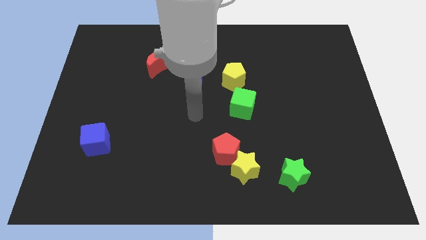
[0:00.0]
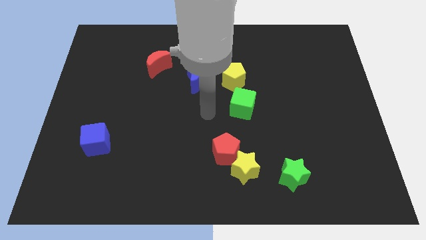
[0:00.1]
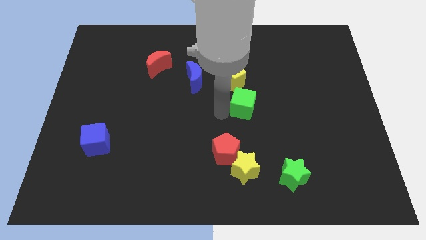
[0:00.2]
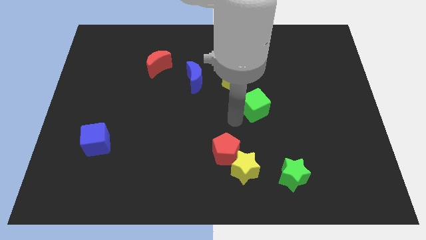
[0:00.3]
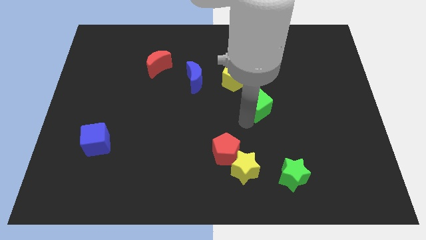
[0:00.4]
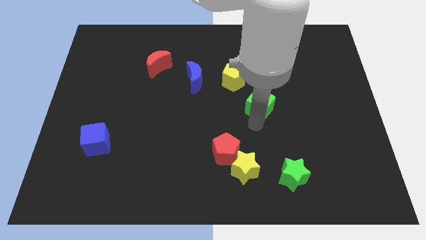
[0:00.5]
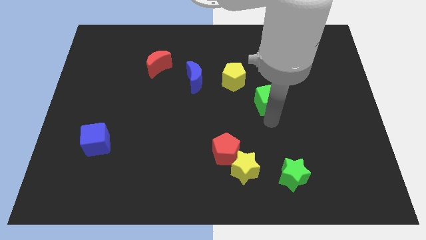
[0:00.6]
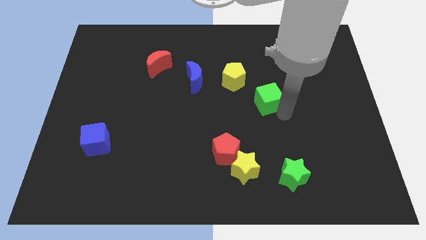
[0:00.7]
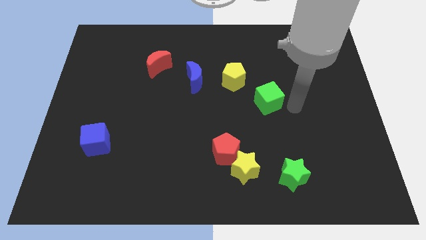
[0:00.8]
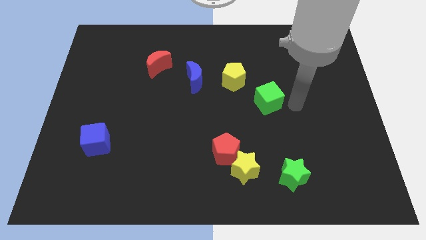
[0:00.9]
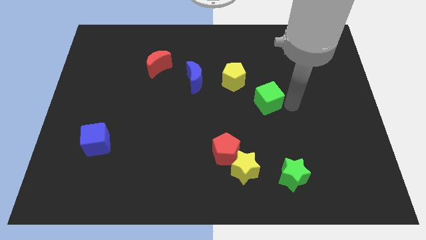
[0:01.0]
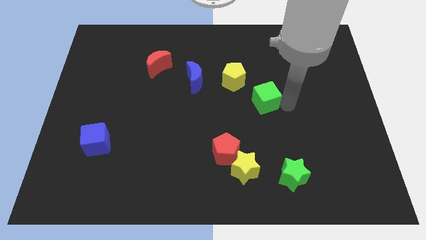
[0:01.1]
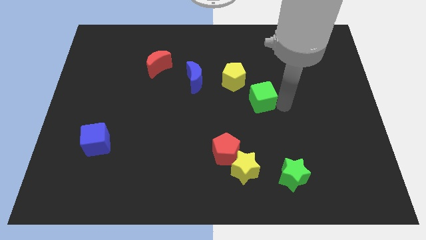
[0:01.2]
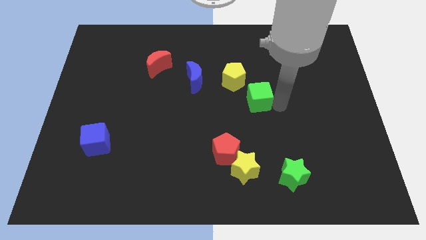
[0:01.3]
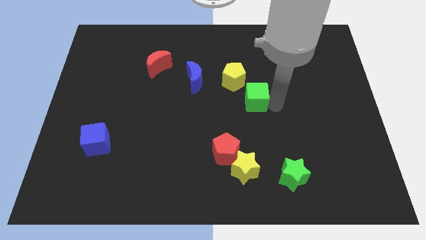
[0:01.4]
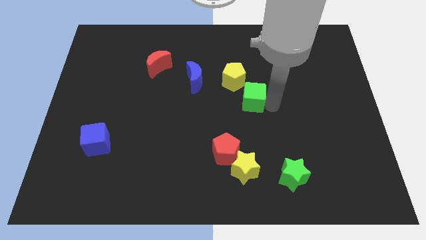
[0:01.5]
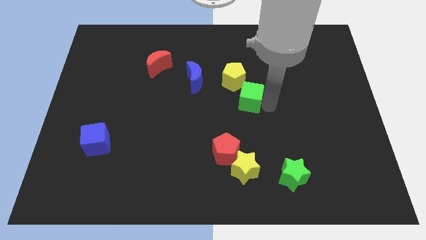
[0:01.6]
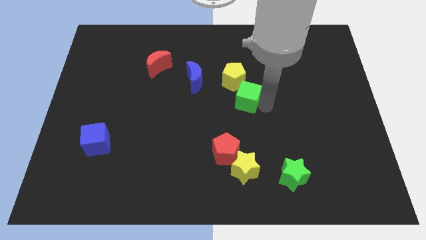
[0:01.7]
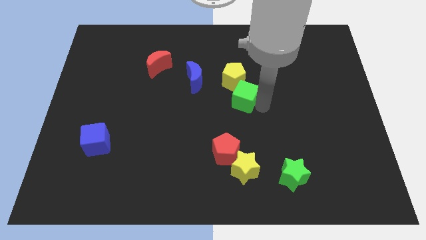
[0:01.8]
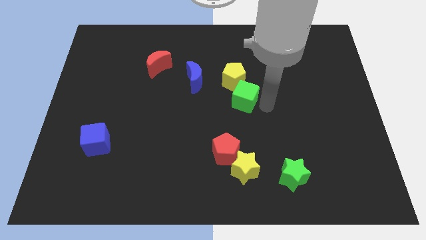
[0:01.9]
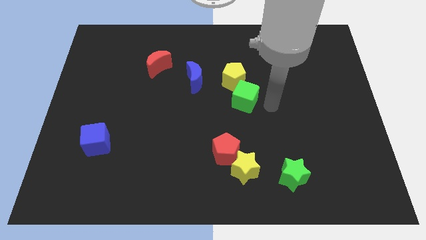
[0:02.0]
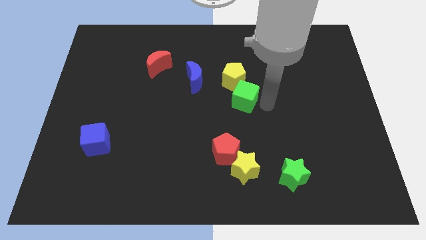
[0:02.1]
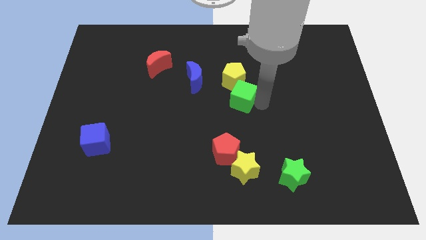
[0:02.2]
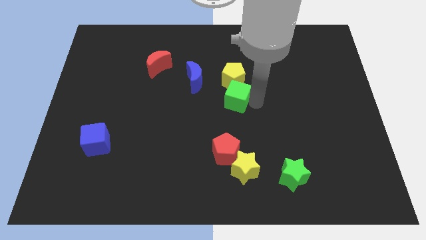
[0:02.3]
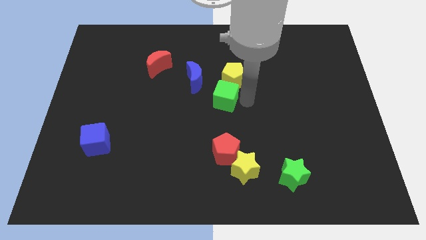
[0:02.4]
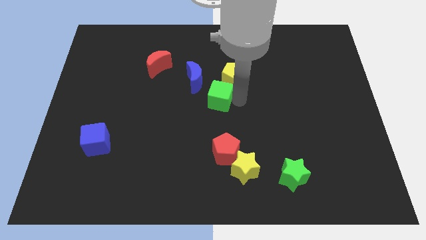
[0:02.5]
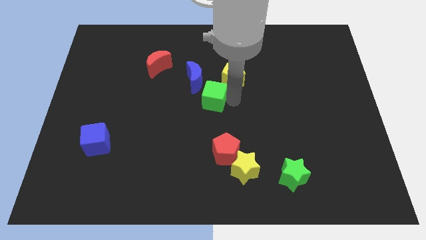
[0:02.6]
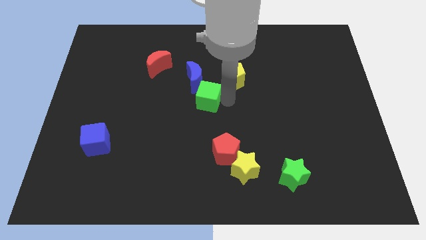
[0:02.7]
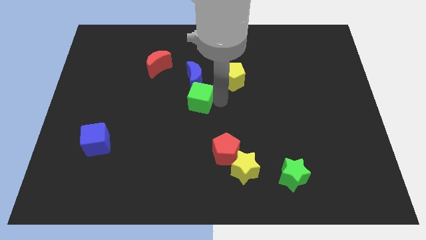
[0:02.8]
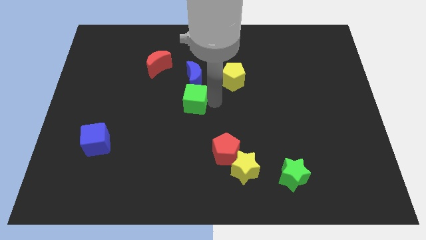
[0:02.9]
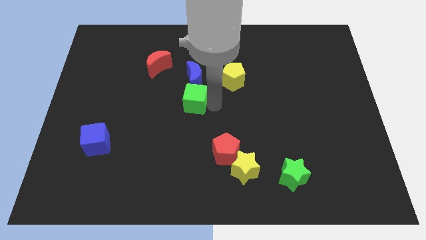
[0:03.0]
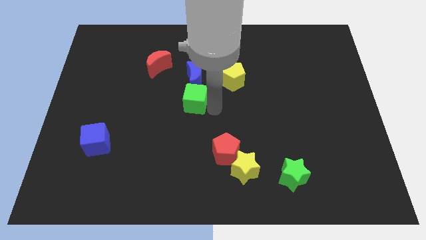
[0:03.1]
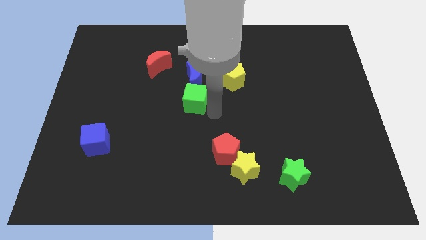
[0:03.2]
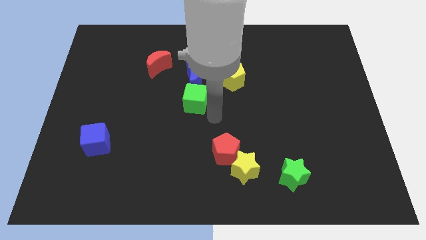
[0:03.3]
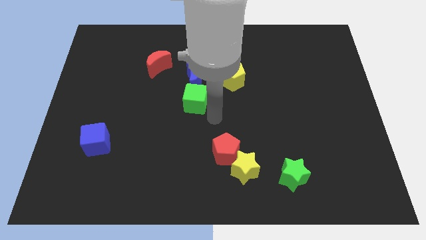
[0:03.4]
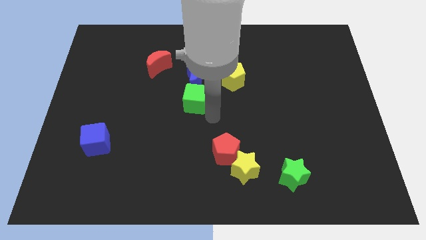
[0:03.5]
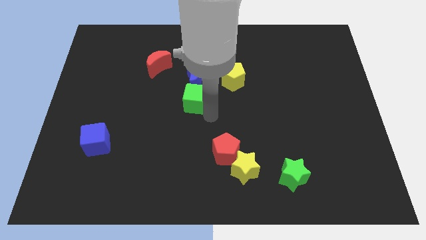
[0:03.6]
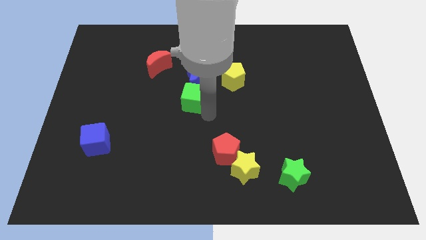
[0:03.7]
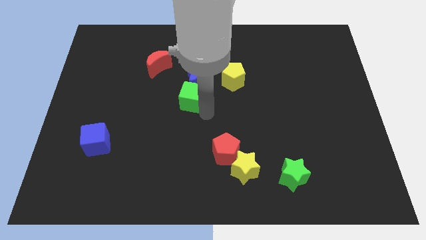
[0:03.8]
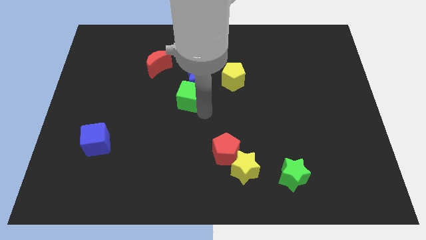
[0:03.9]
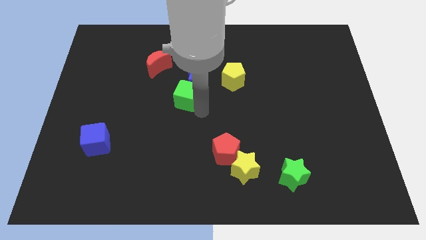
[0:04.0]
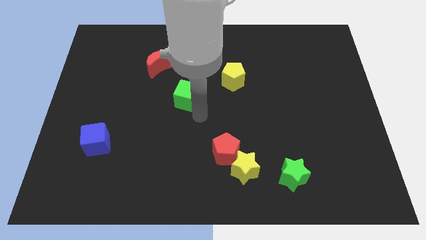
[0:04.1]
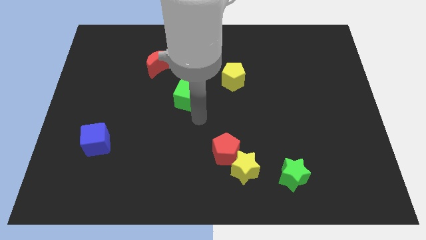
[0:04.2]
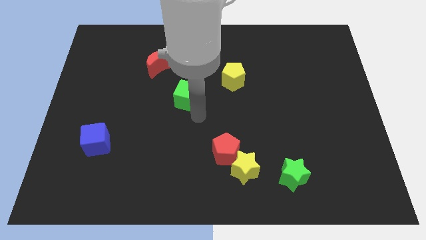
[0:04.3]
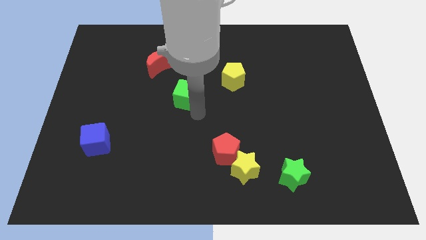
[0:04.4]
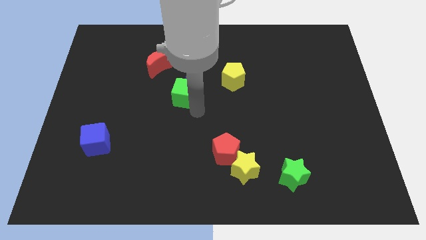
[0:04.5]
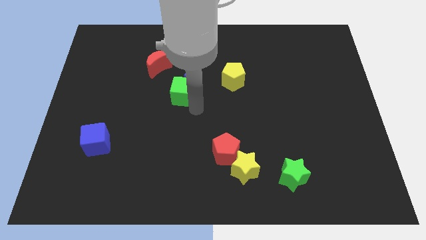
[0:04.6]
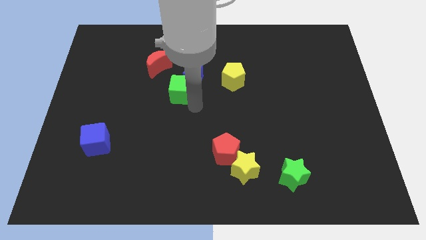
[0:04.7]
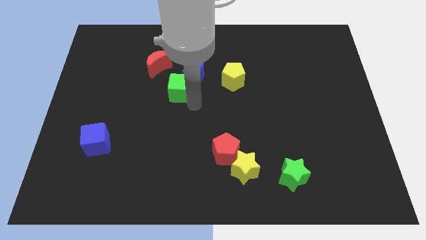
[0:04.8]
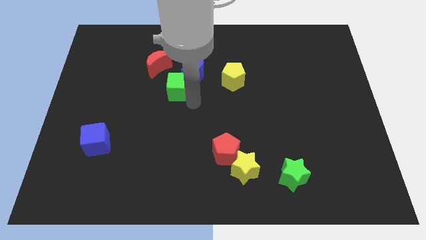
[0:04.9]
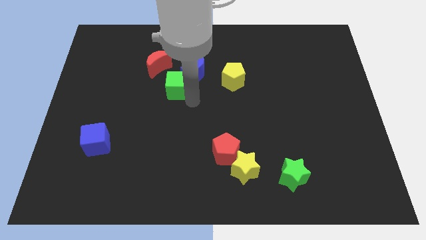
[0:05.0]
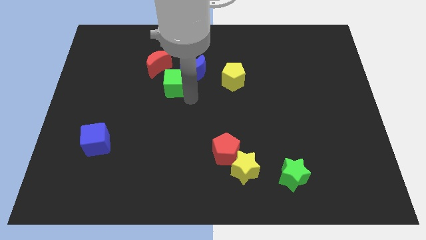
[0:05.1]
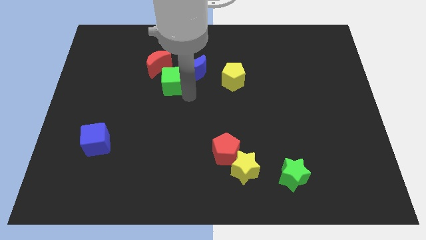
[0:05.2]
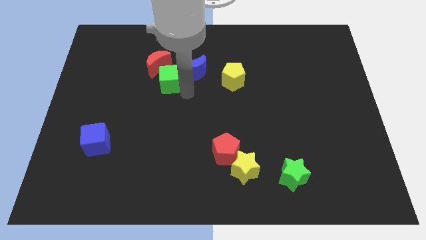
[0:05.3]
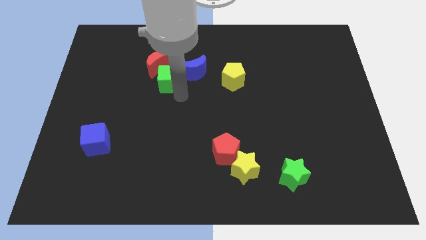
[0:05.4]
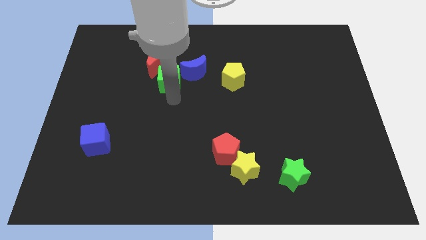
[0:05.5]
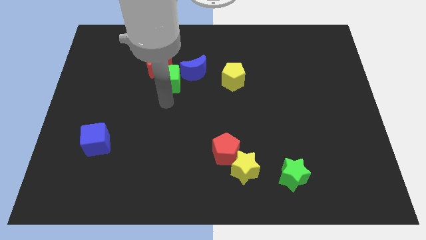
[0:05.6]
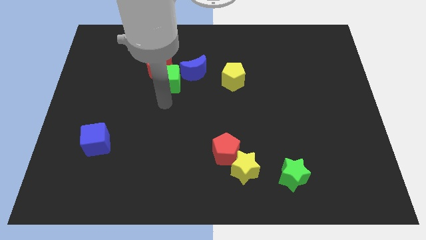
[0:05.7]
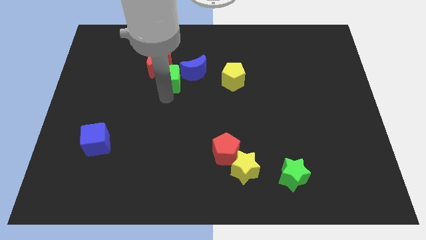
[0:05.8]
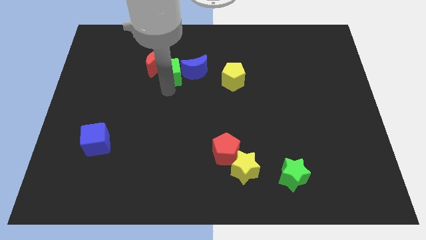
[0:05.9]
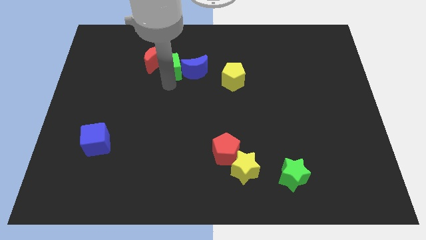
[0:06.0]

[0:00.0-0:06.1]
move the green cube diagonally up and to the left of the blue moon

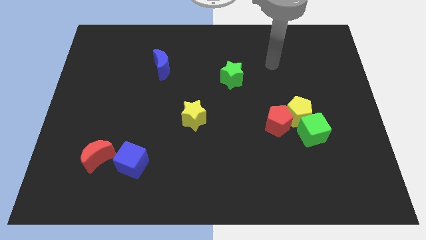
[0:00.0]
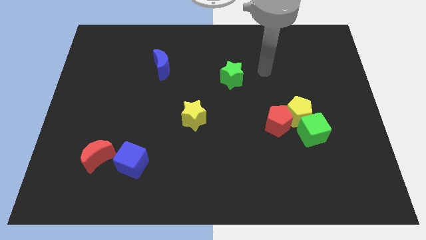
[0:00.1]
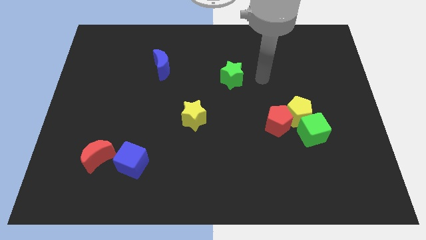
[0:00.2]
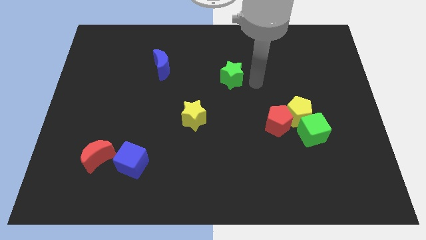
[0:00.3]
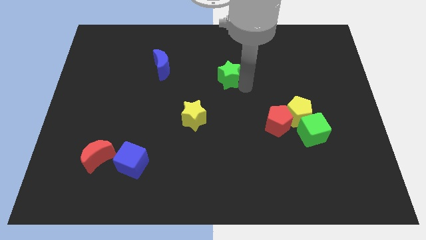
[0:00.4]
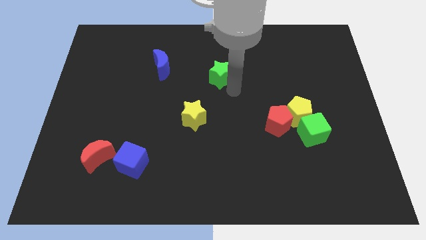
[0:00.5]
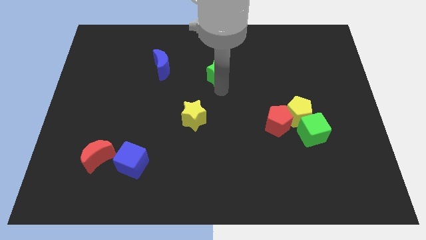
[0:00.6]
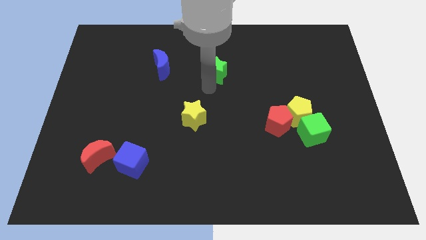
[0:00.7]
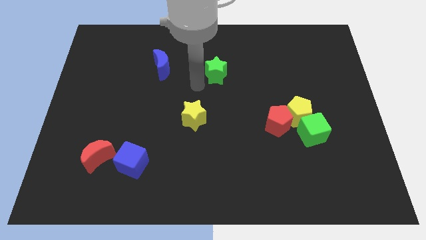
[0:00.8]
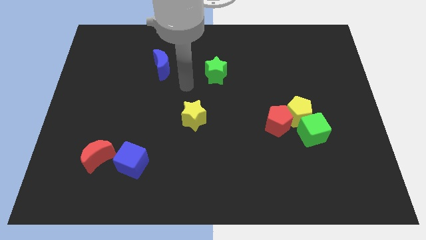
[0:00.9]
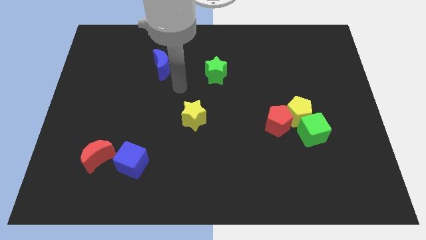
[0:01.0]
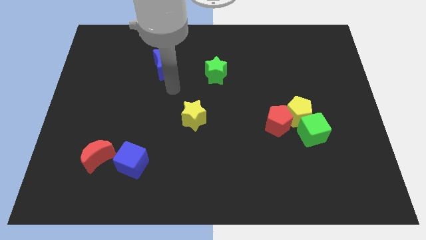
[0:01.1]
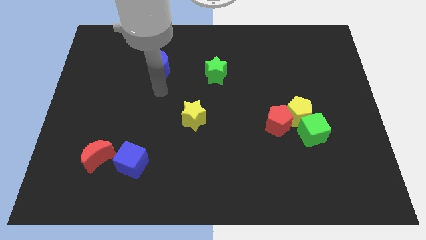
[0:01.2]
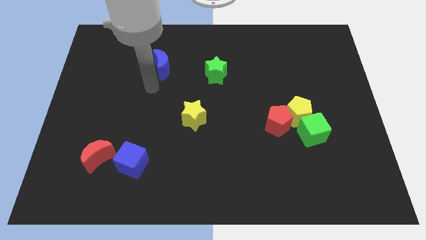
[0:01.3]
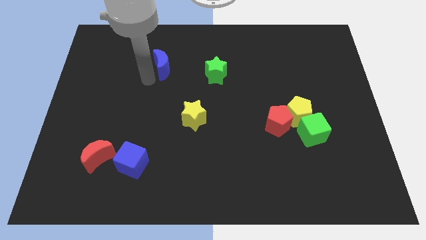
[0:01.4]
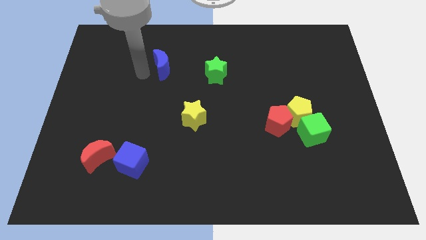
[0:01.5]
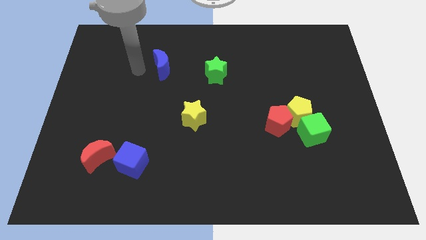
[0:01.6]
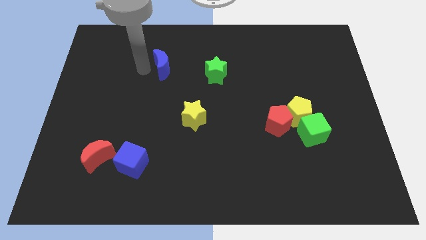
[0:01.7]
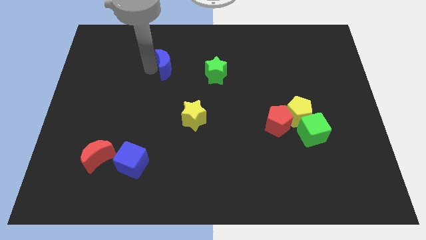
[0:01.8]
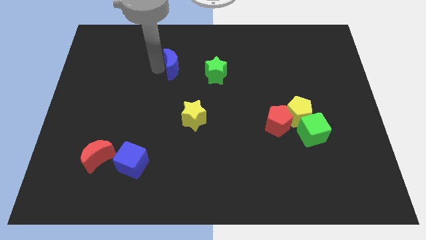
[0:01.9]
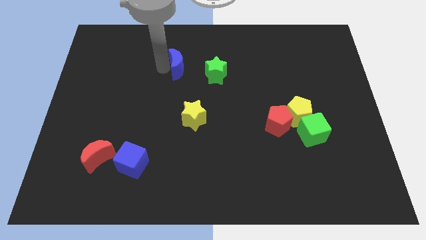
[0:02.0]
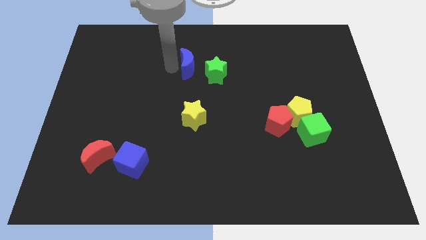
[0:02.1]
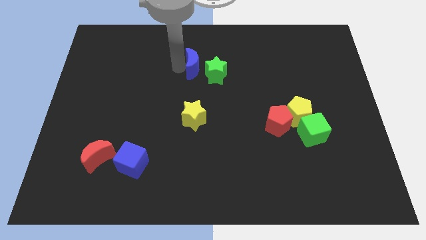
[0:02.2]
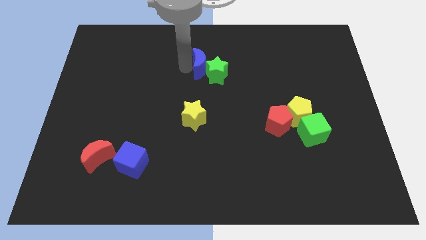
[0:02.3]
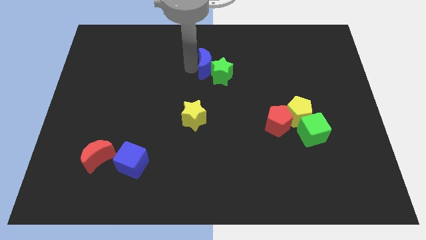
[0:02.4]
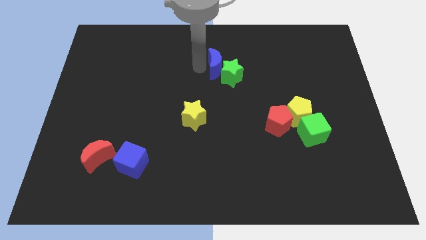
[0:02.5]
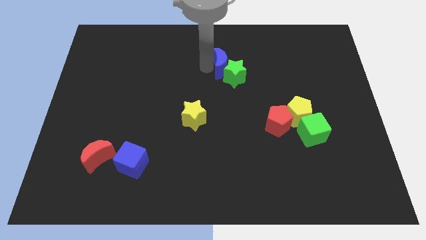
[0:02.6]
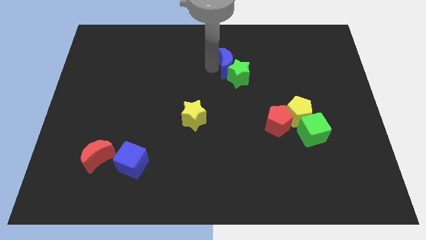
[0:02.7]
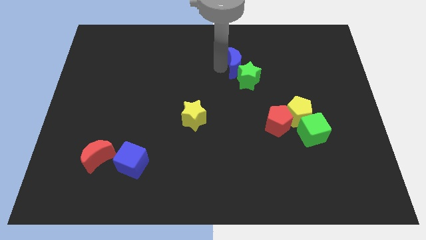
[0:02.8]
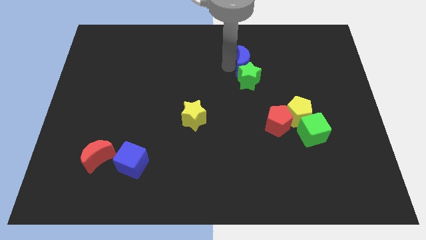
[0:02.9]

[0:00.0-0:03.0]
slide the blue moon to the top right side of the green star
